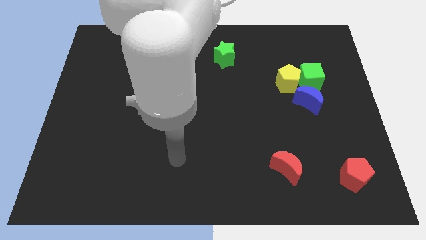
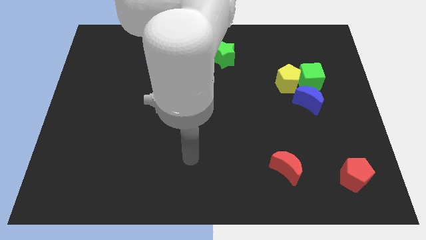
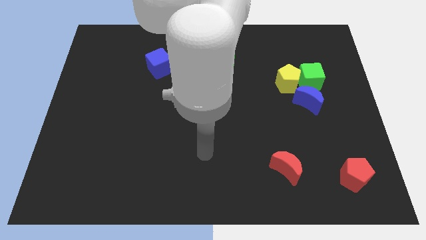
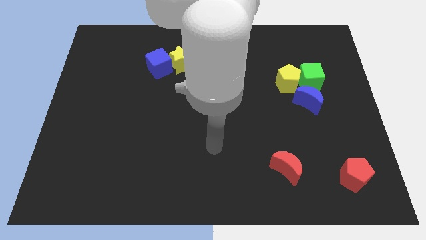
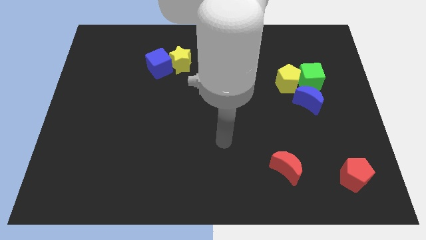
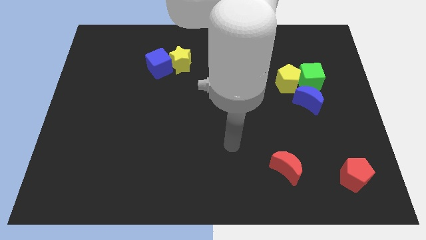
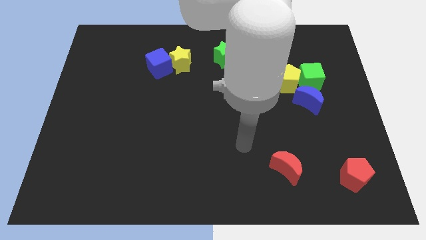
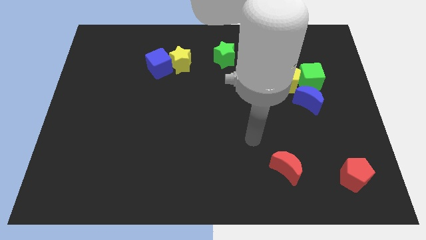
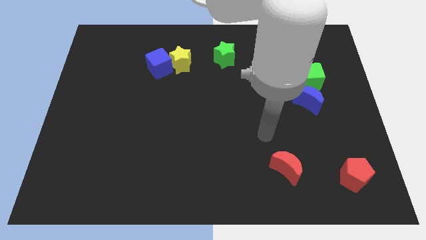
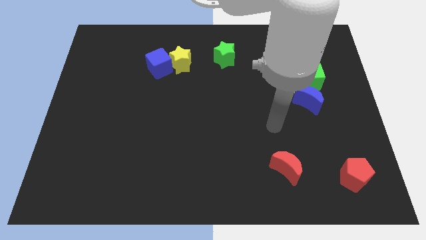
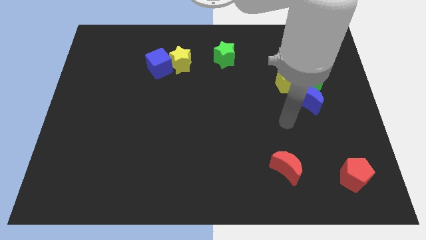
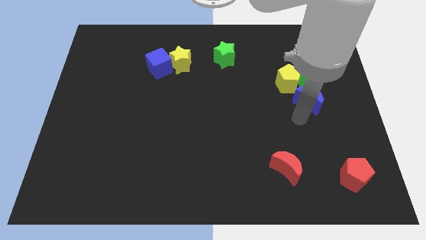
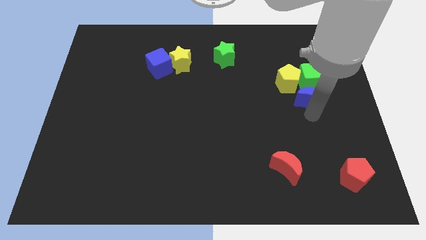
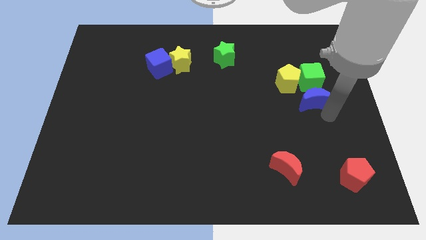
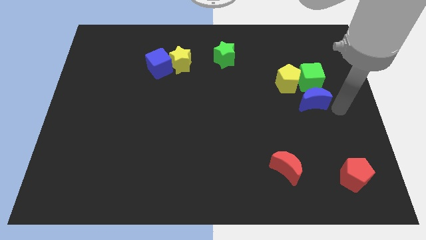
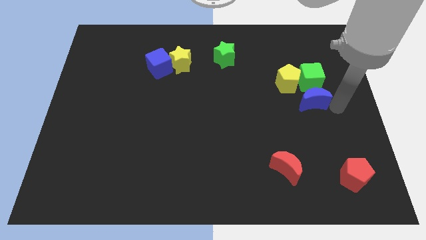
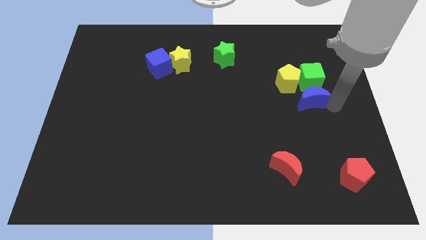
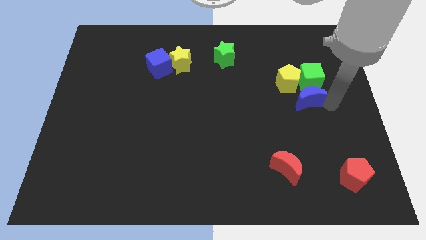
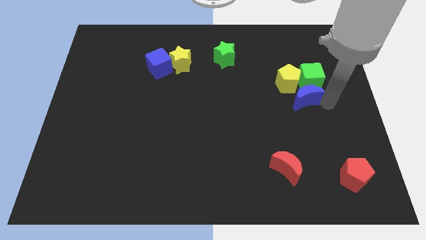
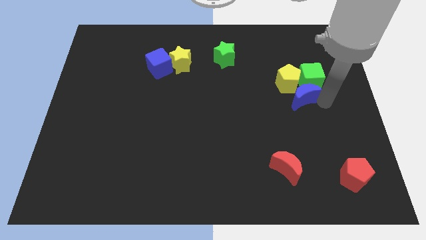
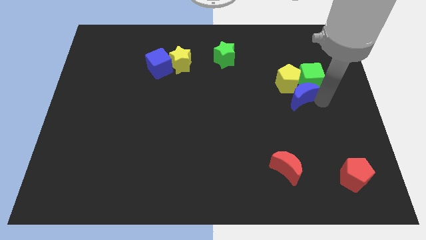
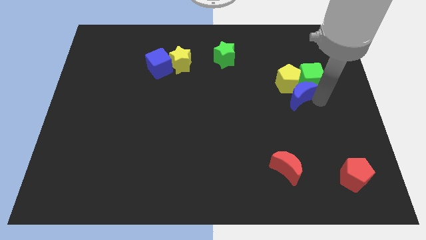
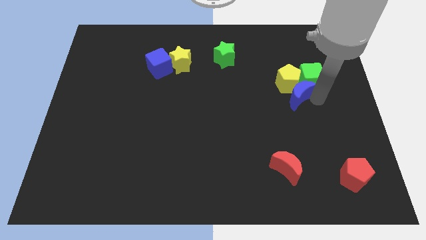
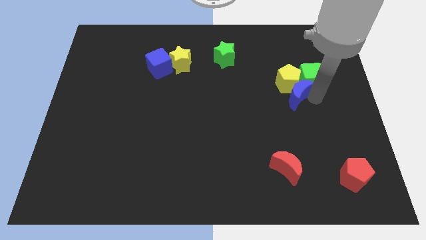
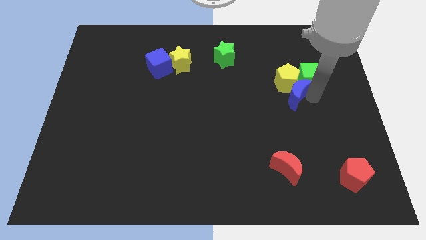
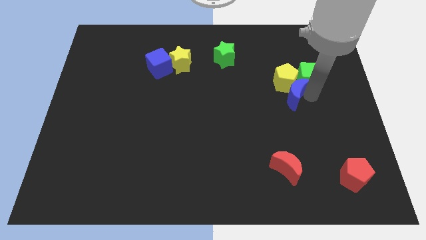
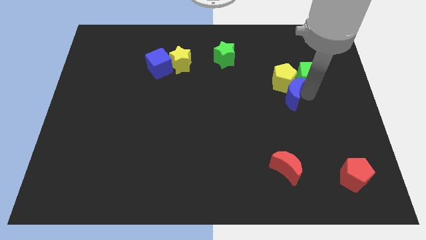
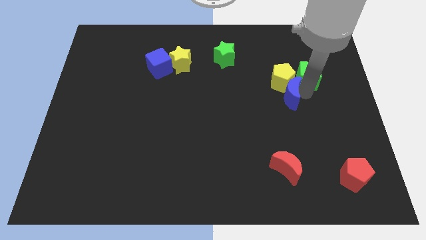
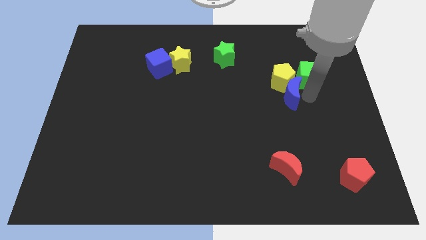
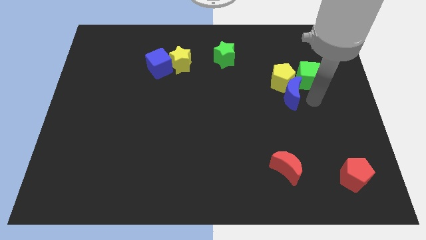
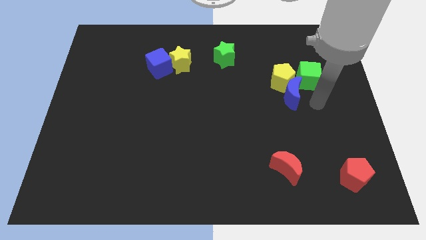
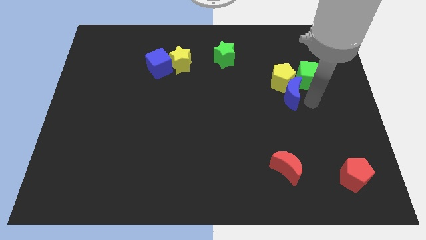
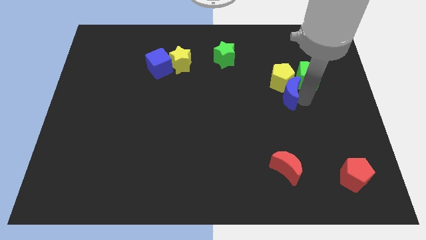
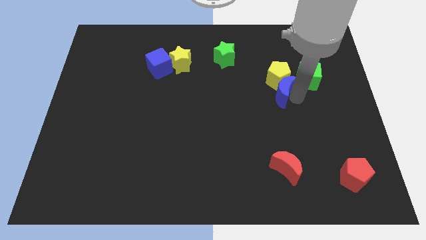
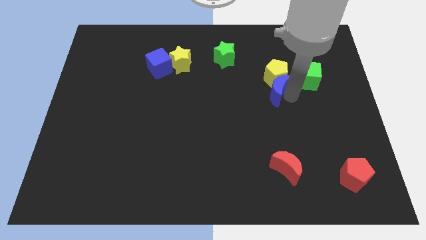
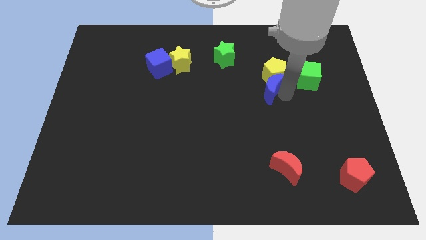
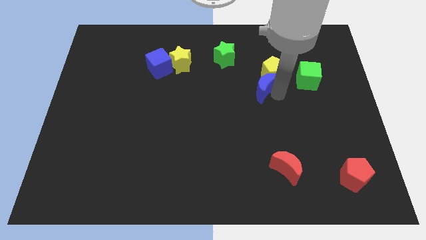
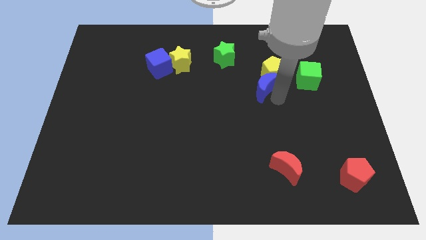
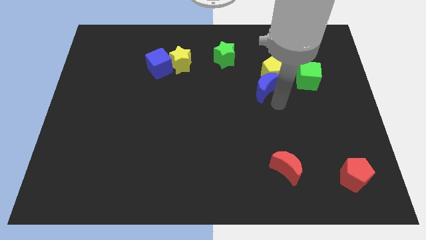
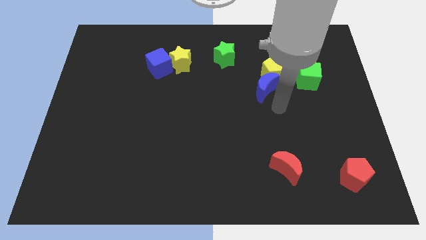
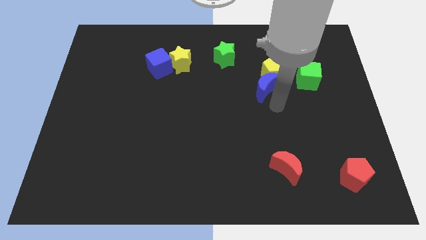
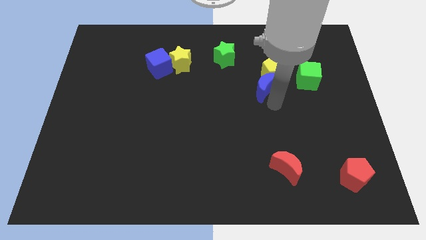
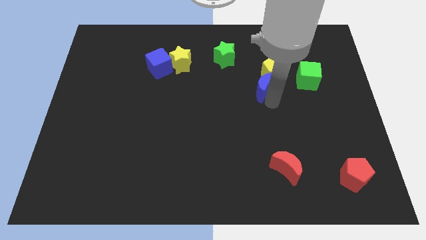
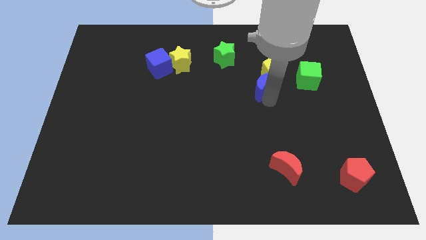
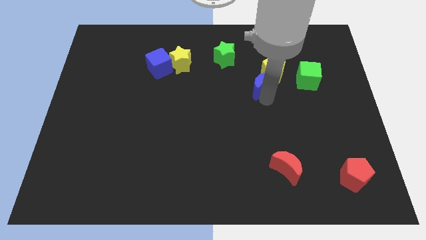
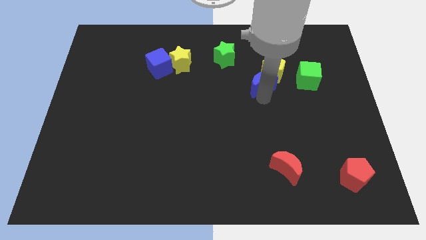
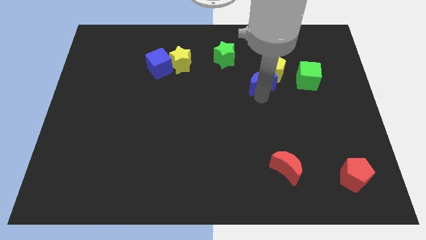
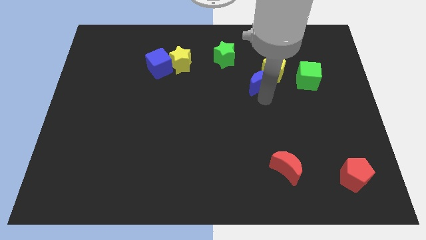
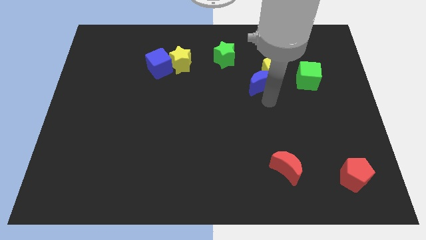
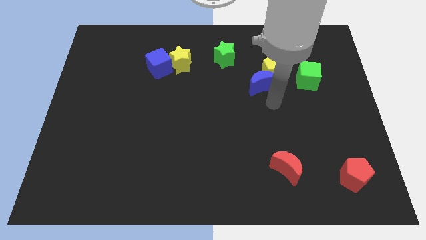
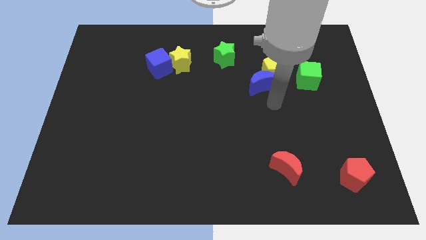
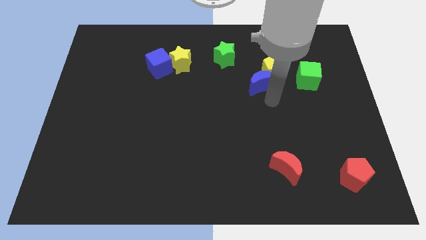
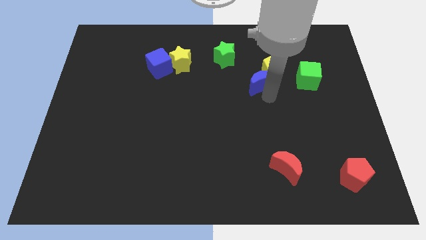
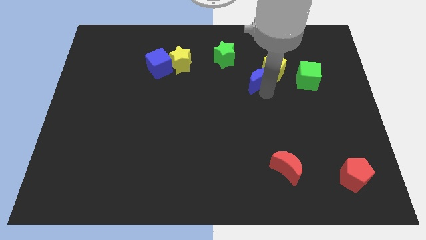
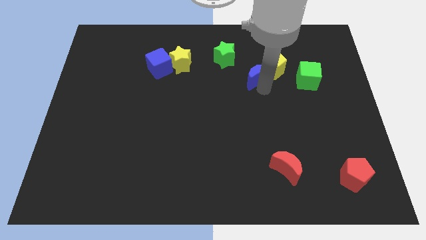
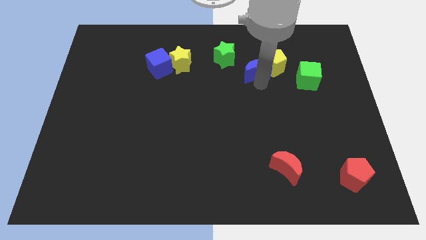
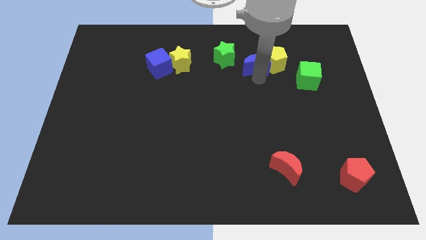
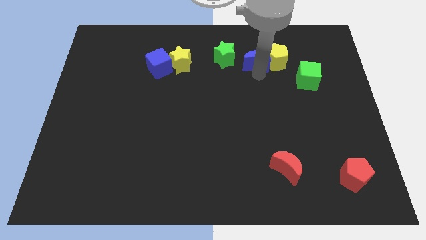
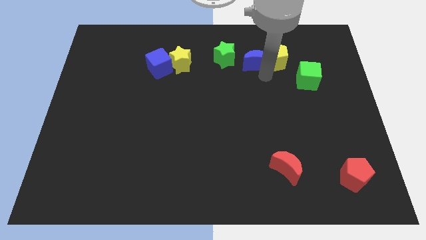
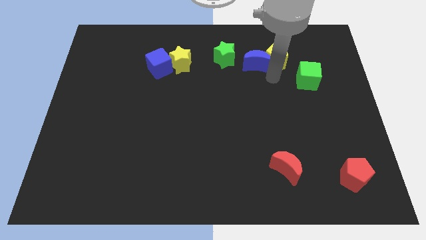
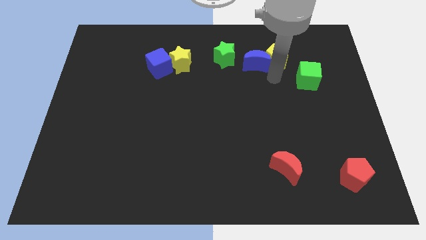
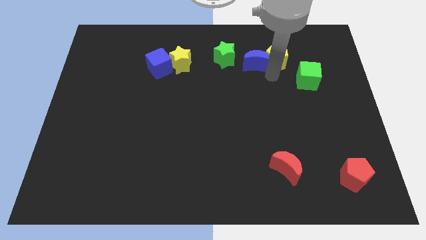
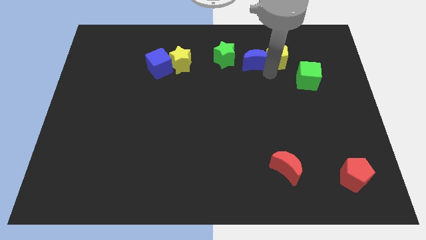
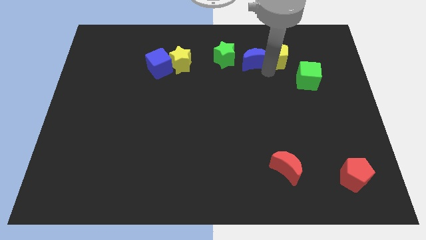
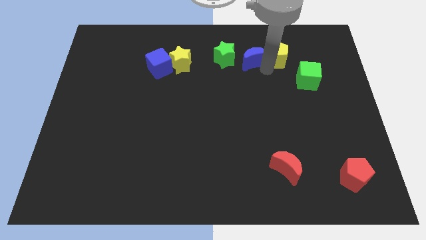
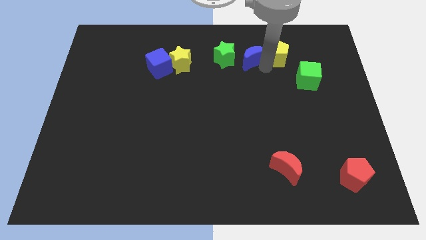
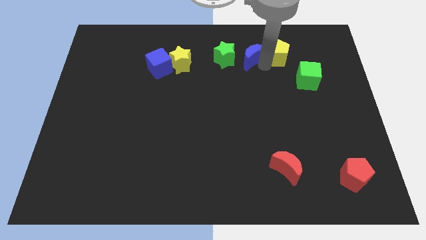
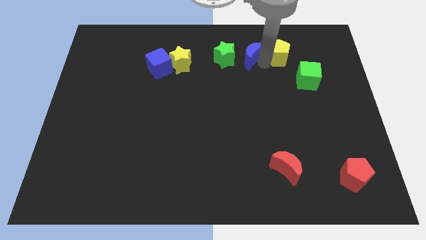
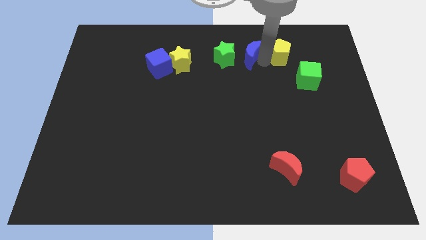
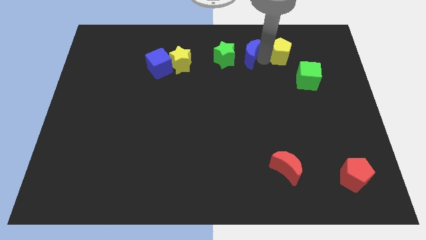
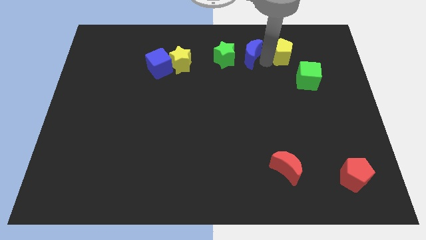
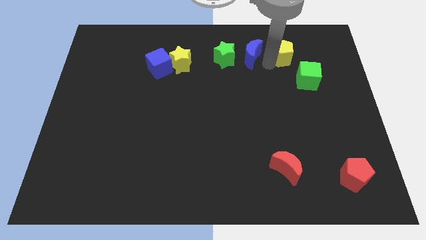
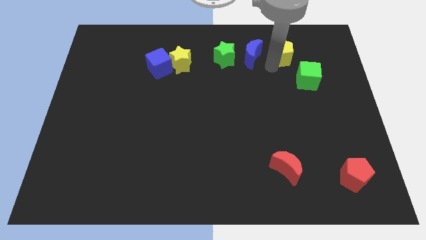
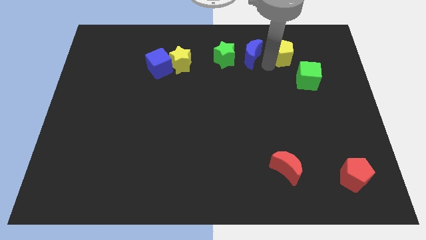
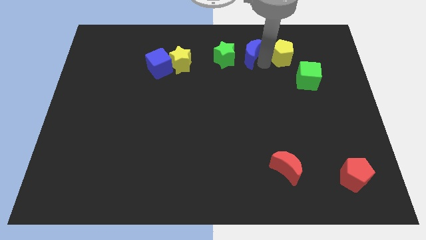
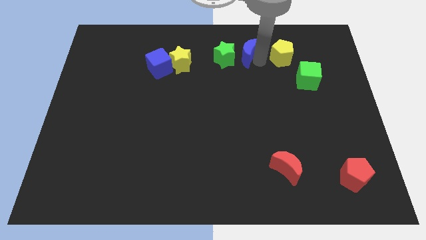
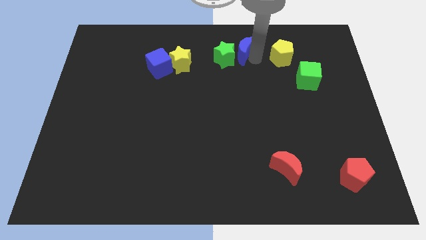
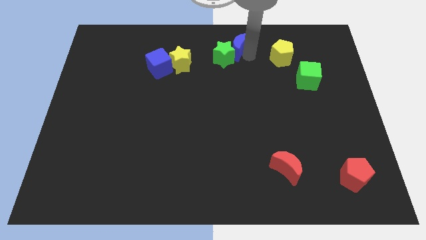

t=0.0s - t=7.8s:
slide the blue moon to the top side
